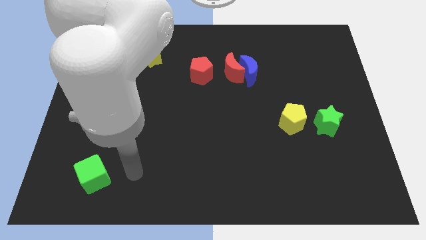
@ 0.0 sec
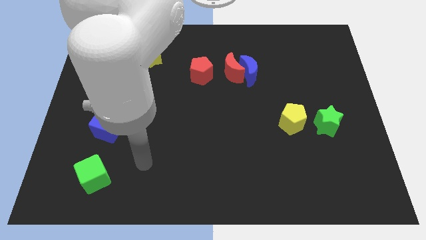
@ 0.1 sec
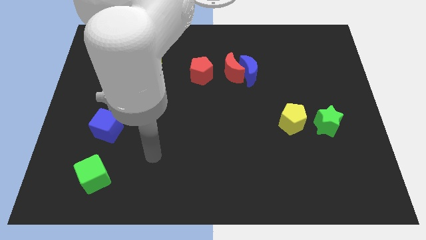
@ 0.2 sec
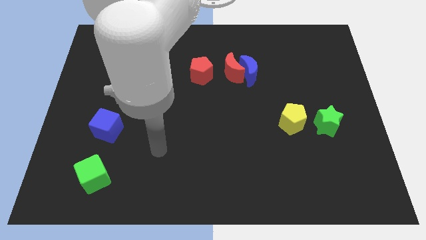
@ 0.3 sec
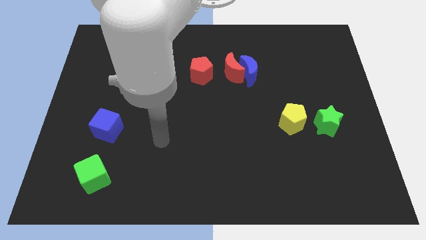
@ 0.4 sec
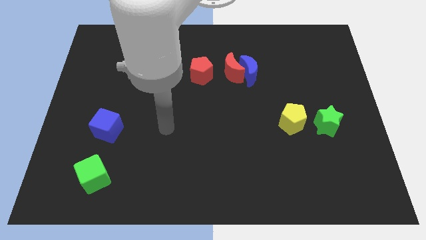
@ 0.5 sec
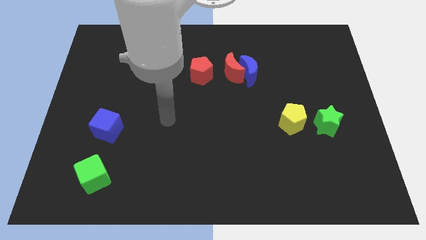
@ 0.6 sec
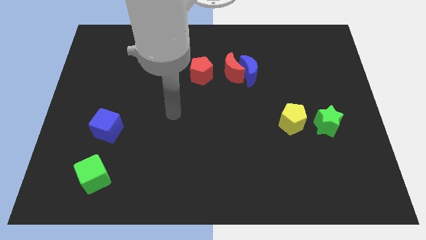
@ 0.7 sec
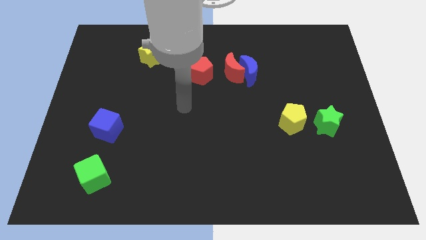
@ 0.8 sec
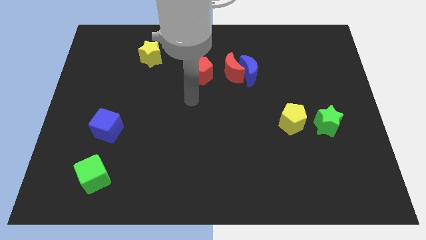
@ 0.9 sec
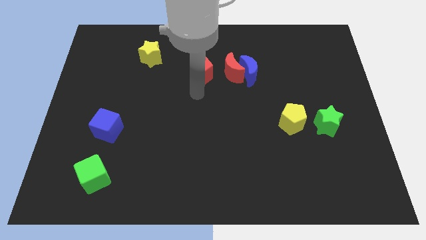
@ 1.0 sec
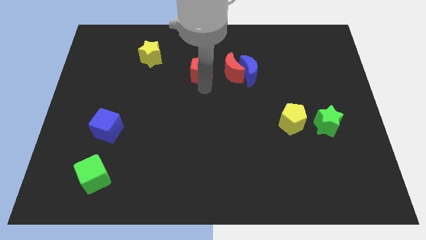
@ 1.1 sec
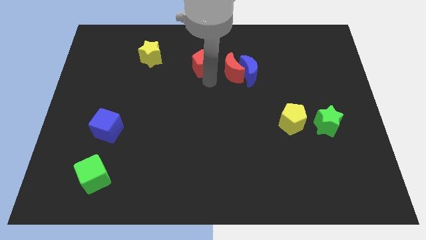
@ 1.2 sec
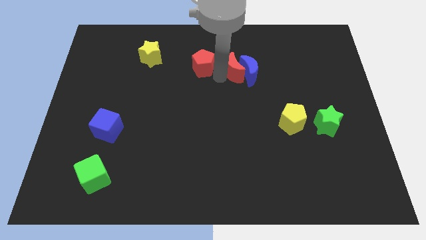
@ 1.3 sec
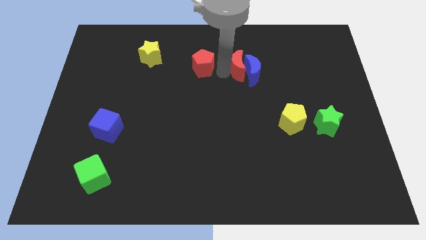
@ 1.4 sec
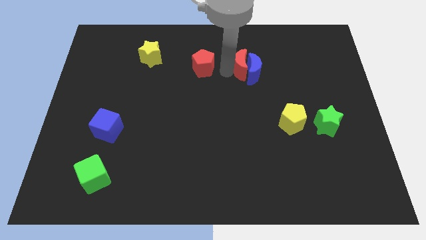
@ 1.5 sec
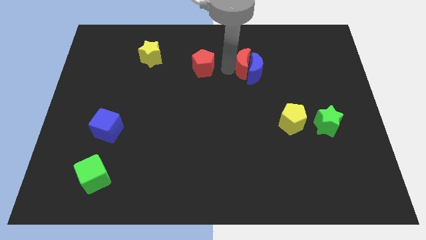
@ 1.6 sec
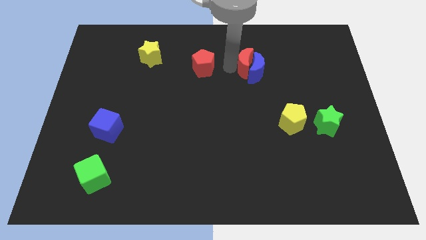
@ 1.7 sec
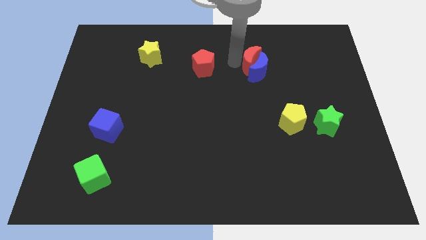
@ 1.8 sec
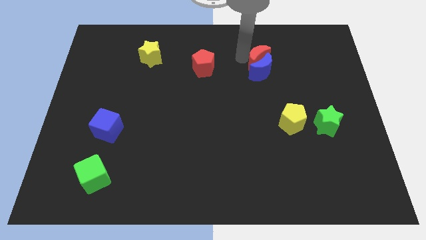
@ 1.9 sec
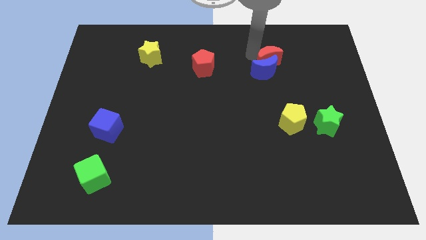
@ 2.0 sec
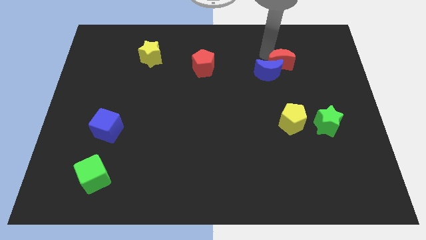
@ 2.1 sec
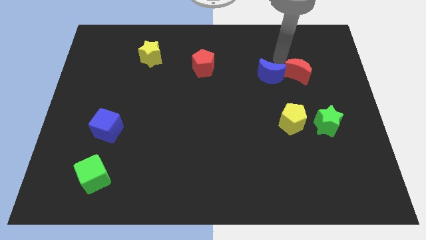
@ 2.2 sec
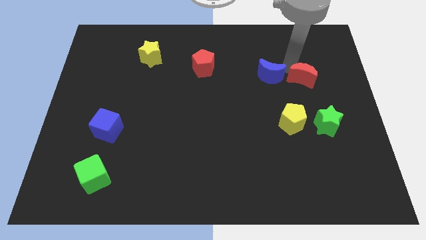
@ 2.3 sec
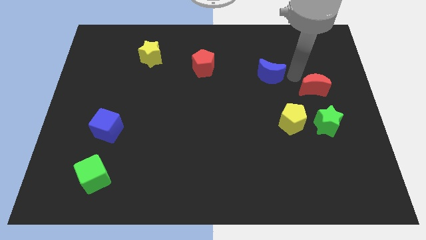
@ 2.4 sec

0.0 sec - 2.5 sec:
separate the blue moon from the red moon

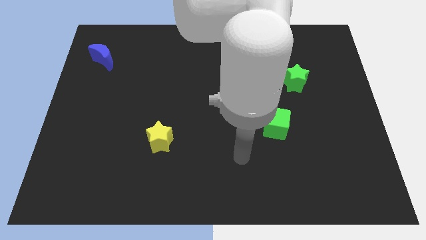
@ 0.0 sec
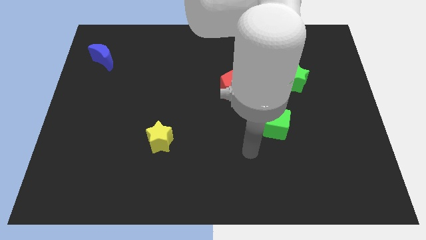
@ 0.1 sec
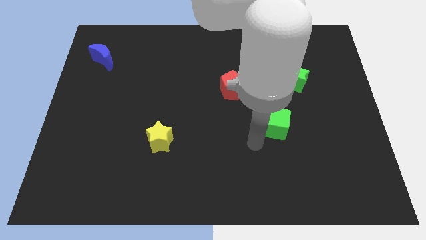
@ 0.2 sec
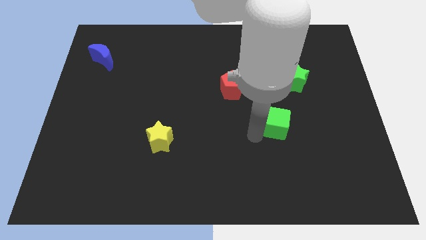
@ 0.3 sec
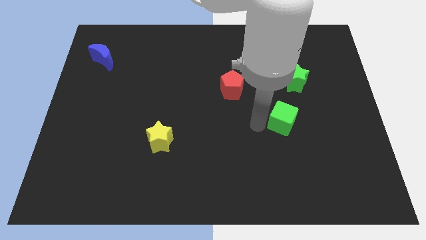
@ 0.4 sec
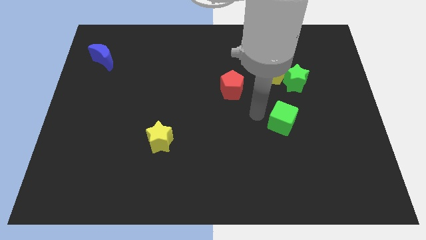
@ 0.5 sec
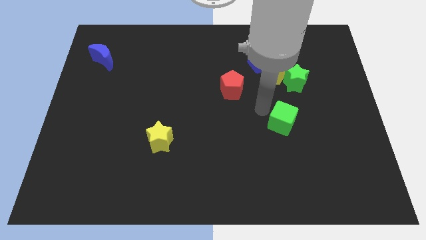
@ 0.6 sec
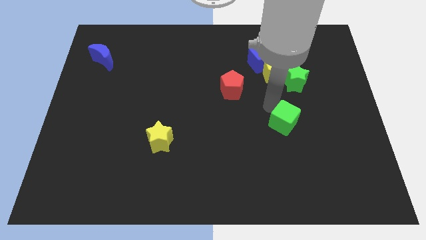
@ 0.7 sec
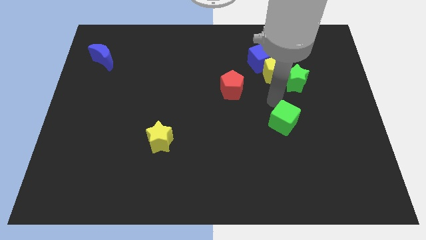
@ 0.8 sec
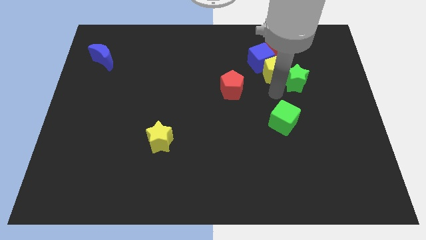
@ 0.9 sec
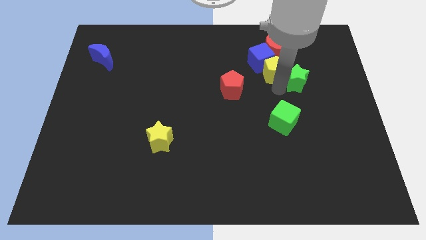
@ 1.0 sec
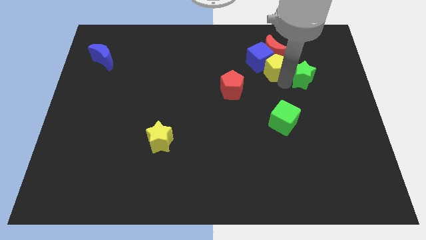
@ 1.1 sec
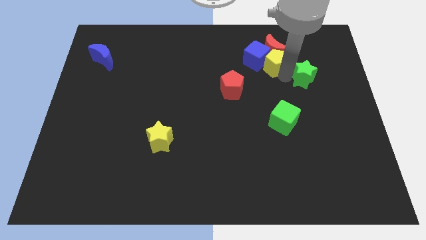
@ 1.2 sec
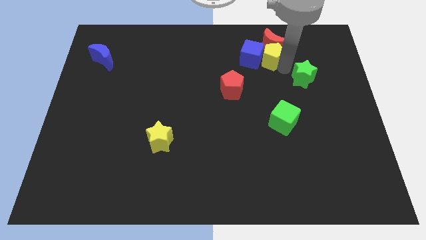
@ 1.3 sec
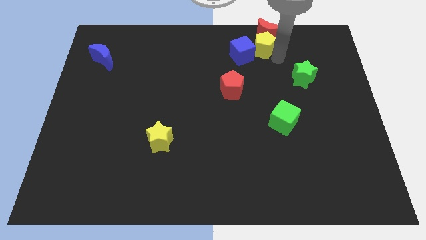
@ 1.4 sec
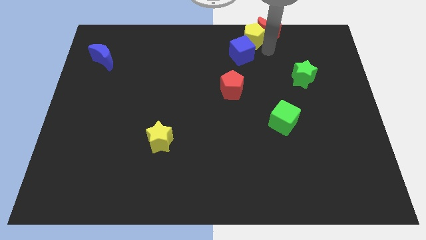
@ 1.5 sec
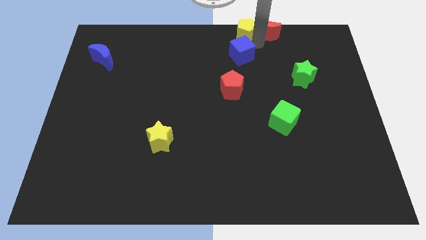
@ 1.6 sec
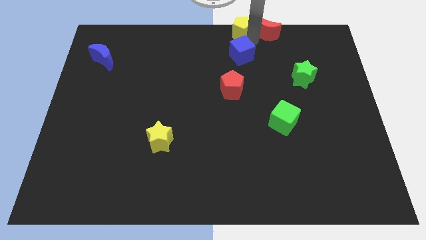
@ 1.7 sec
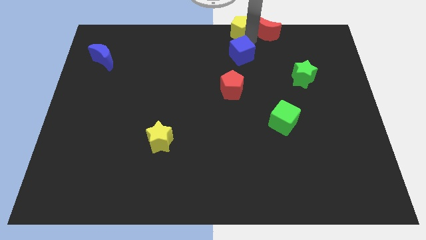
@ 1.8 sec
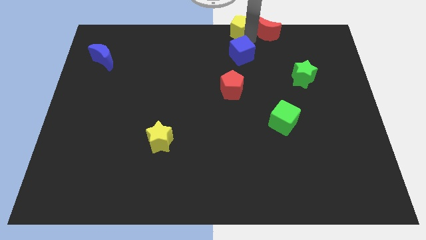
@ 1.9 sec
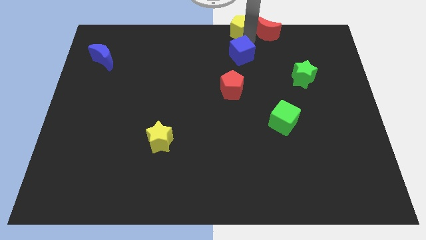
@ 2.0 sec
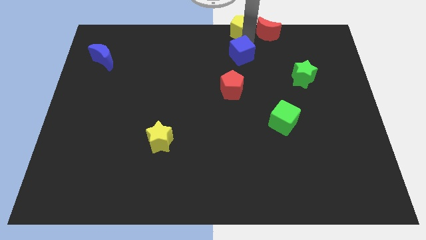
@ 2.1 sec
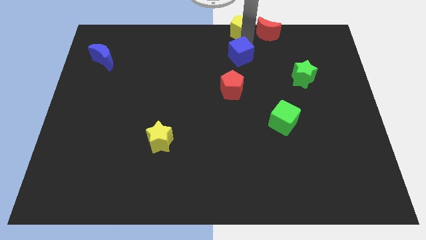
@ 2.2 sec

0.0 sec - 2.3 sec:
move the blue cube away from the red moon and yellow pentagon

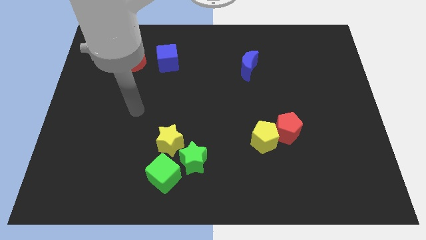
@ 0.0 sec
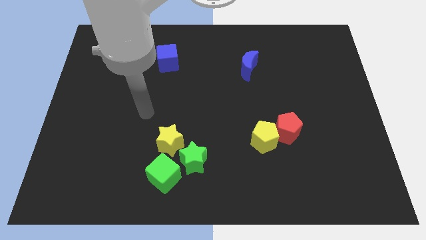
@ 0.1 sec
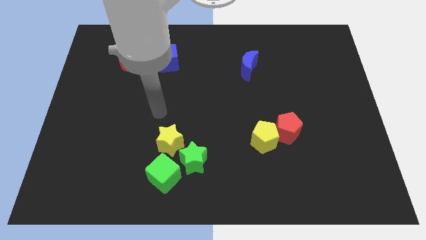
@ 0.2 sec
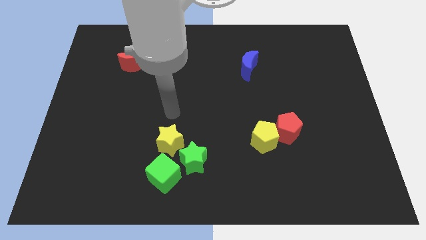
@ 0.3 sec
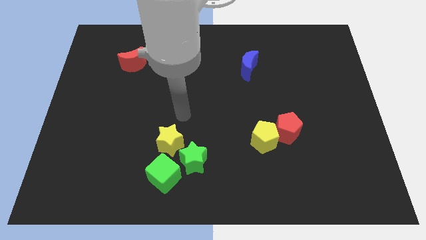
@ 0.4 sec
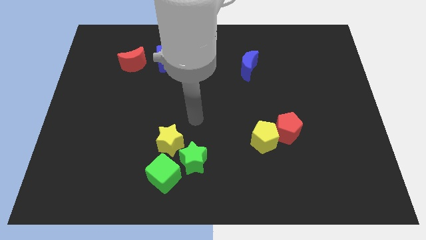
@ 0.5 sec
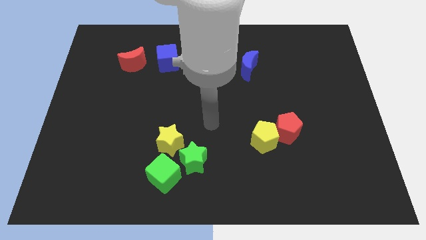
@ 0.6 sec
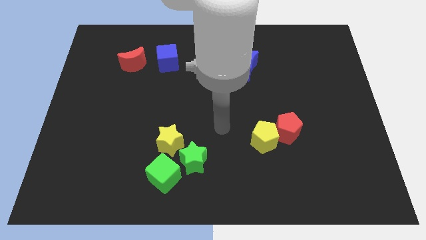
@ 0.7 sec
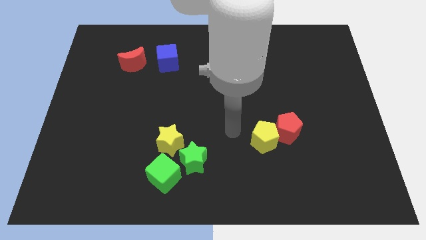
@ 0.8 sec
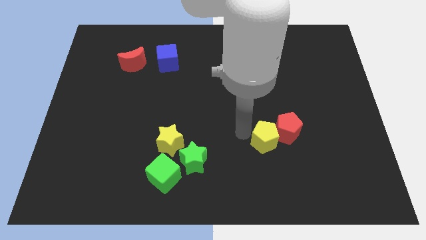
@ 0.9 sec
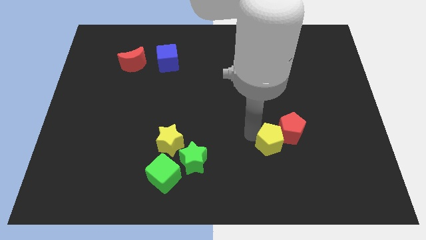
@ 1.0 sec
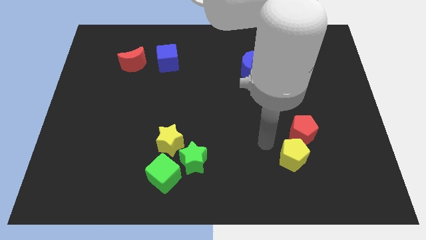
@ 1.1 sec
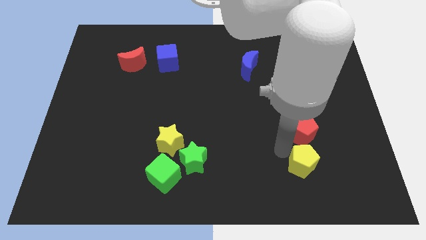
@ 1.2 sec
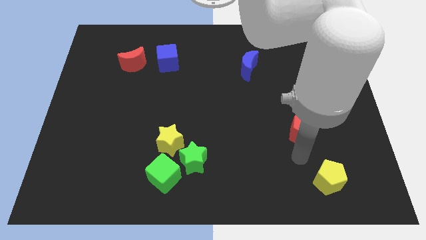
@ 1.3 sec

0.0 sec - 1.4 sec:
pull the red pentagon apart from the yellow pentagon

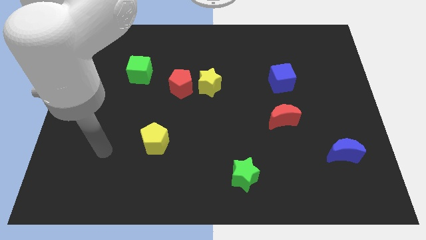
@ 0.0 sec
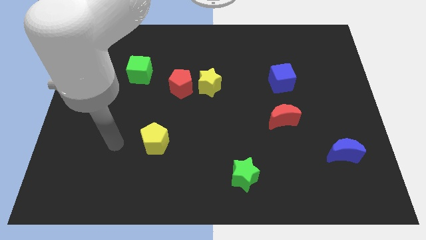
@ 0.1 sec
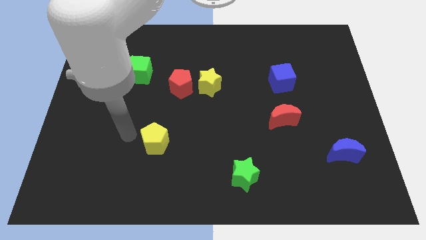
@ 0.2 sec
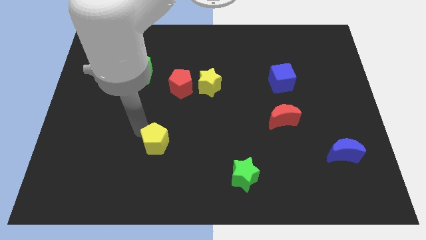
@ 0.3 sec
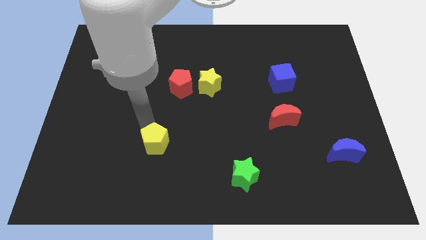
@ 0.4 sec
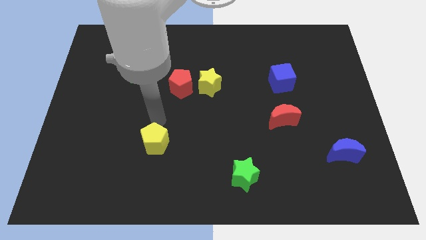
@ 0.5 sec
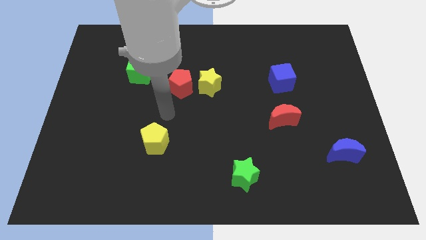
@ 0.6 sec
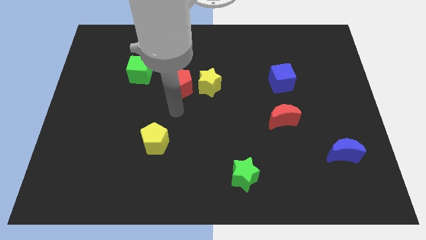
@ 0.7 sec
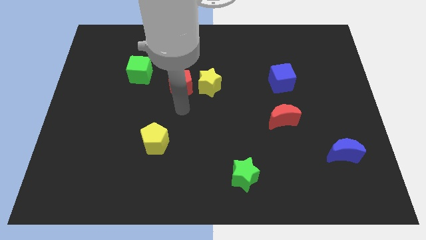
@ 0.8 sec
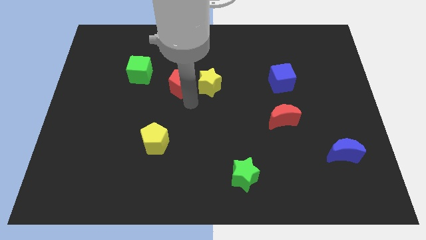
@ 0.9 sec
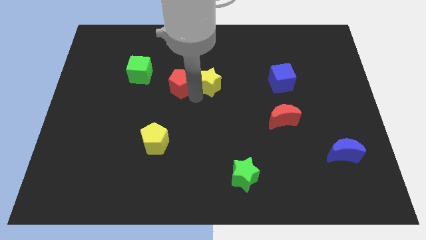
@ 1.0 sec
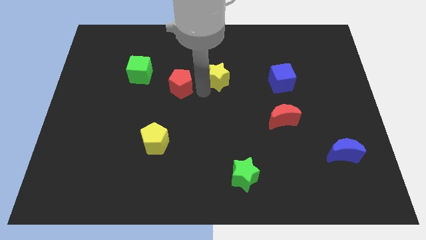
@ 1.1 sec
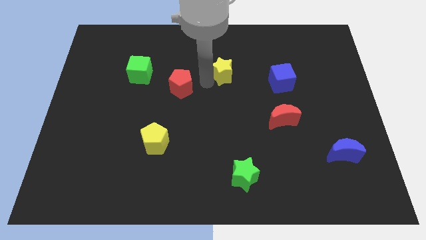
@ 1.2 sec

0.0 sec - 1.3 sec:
move the red pentagon away from the yellow star

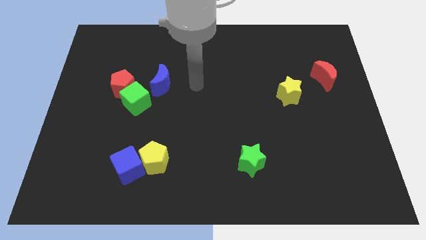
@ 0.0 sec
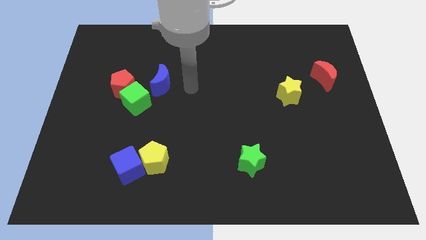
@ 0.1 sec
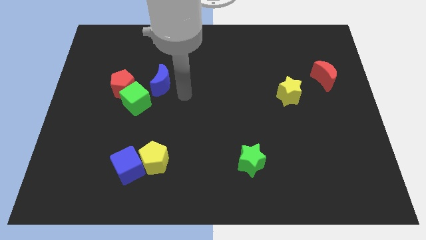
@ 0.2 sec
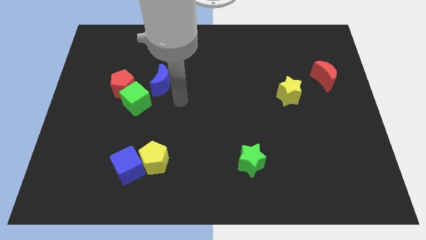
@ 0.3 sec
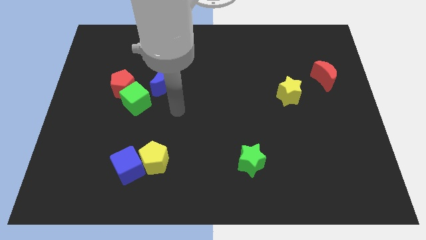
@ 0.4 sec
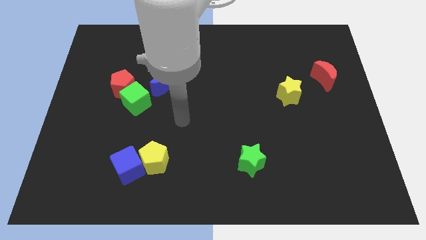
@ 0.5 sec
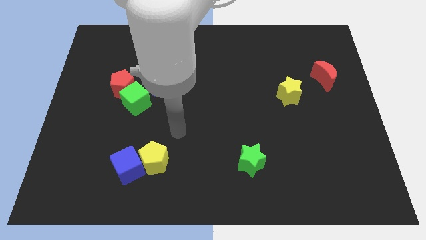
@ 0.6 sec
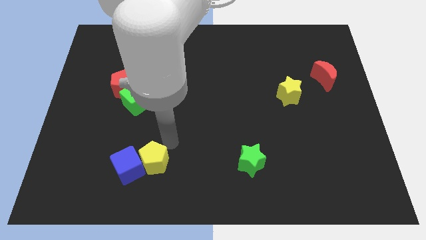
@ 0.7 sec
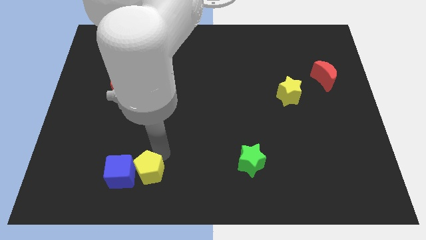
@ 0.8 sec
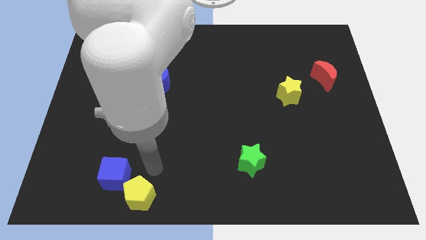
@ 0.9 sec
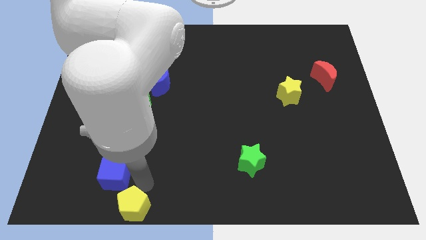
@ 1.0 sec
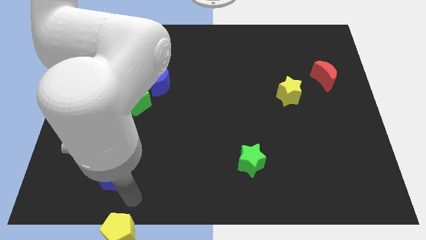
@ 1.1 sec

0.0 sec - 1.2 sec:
pull the blue cube apart from the yellow pentagon

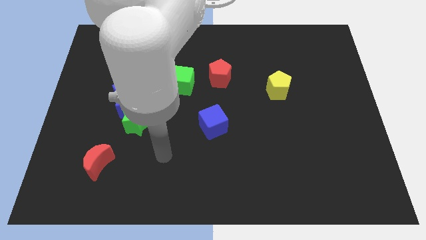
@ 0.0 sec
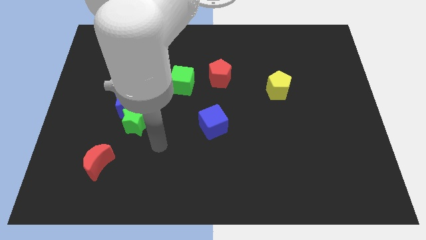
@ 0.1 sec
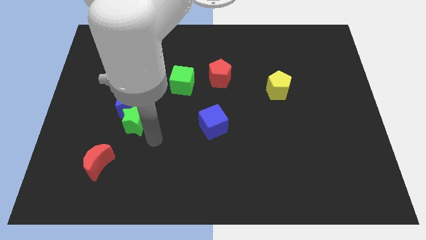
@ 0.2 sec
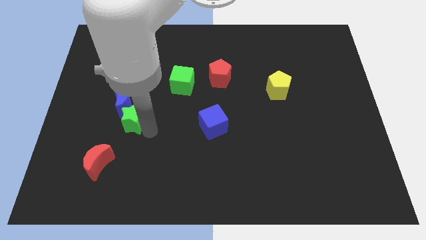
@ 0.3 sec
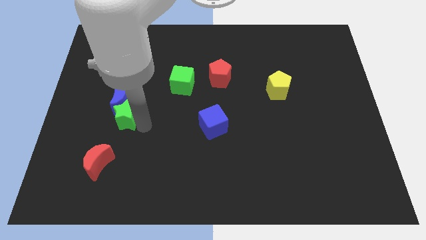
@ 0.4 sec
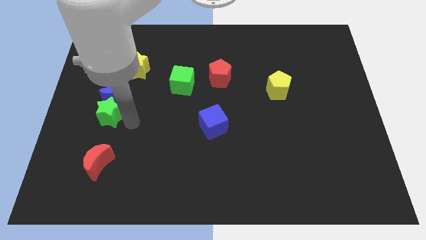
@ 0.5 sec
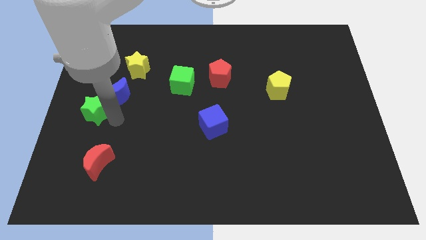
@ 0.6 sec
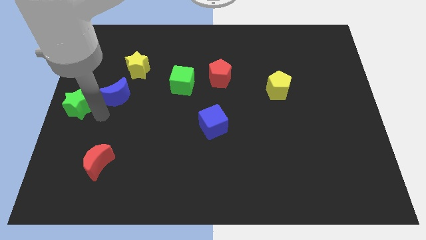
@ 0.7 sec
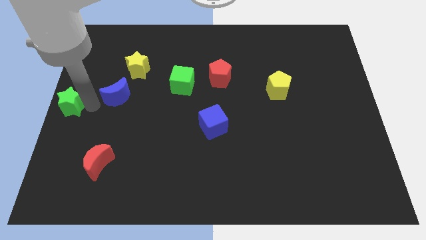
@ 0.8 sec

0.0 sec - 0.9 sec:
move the blue moon away from the green star
